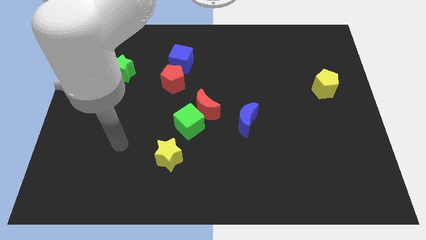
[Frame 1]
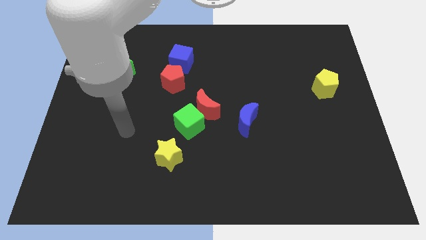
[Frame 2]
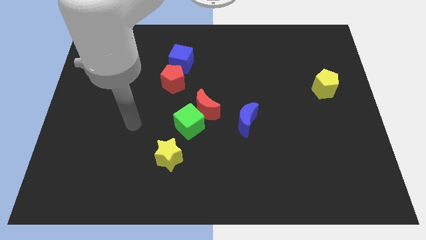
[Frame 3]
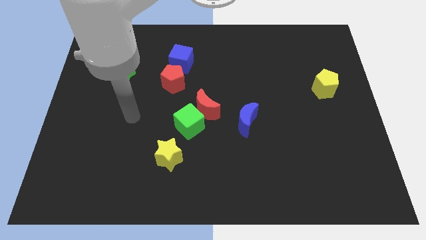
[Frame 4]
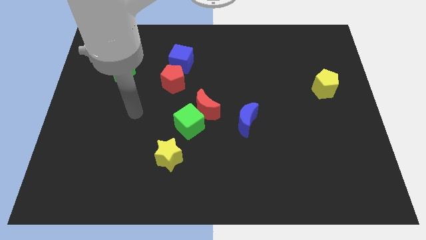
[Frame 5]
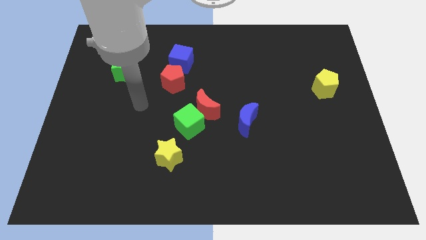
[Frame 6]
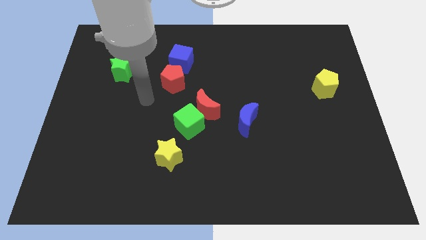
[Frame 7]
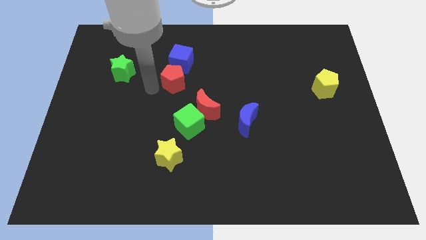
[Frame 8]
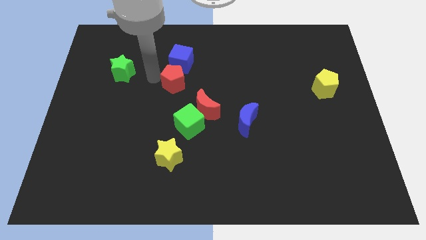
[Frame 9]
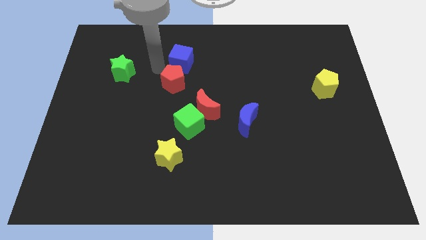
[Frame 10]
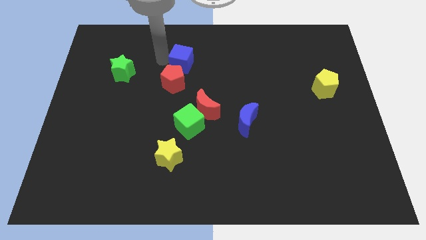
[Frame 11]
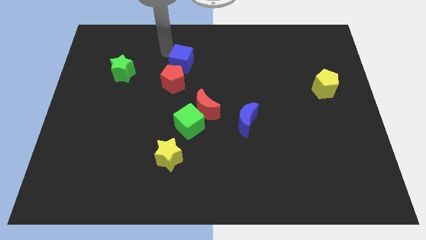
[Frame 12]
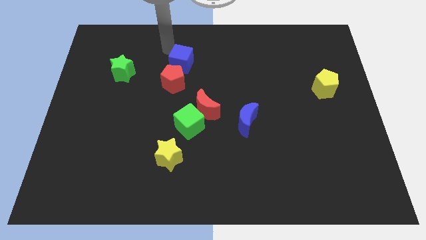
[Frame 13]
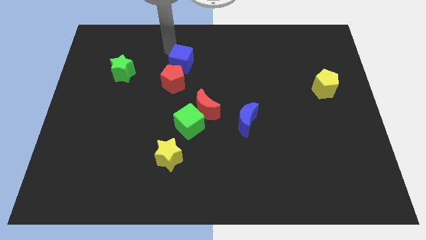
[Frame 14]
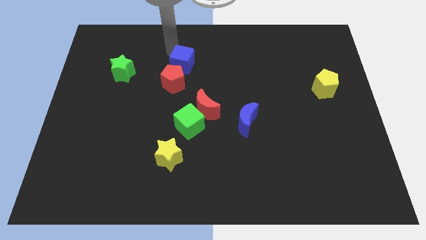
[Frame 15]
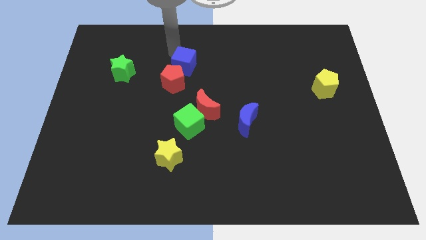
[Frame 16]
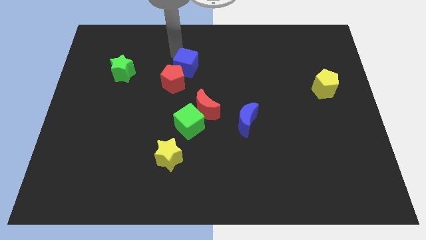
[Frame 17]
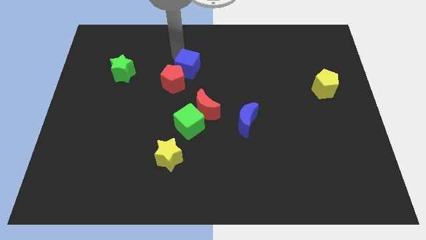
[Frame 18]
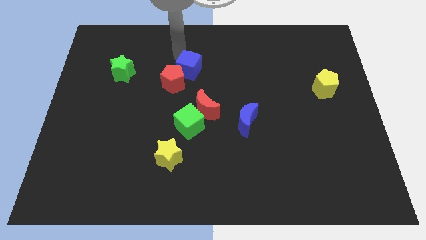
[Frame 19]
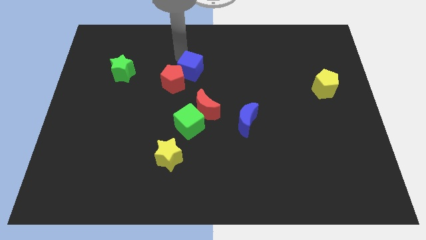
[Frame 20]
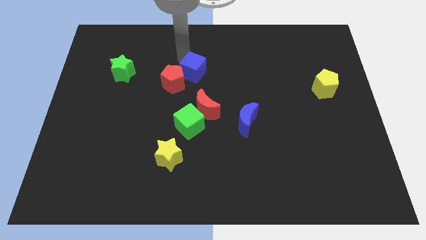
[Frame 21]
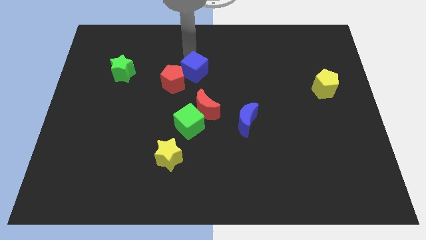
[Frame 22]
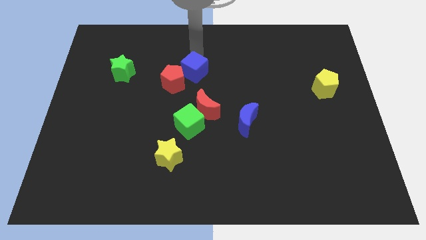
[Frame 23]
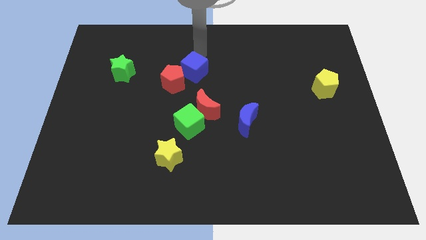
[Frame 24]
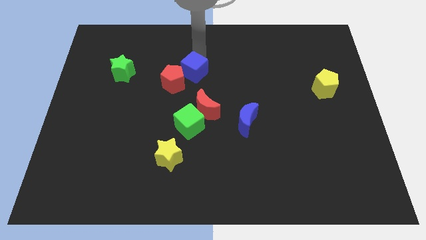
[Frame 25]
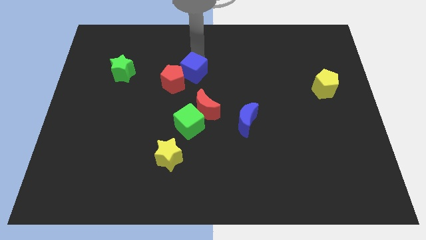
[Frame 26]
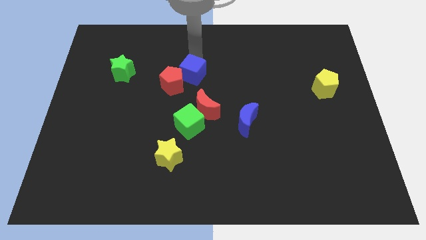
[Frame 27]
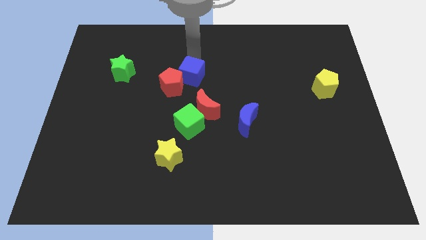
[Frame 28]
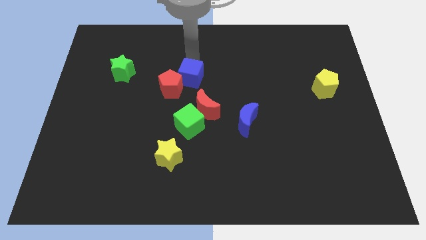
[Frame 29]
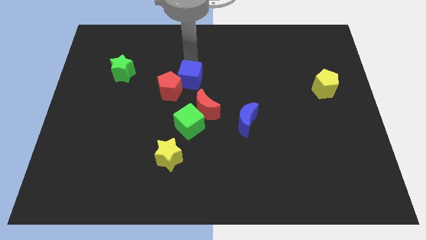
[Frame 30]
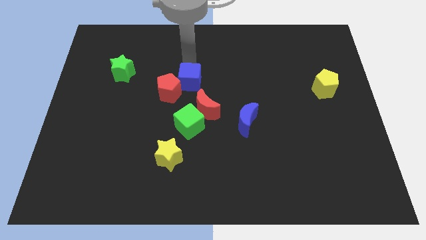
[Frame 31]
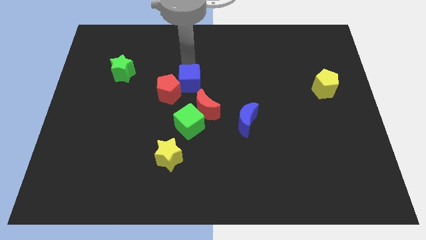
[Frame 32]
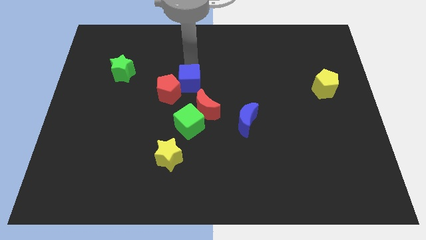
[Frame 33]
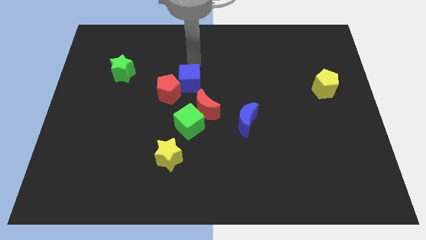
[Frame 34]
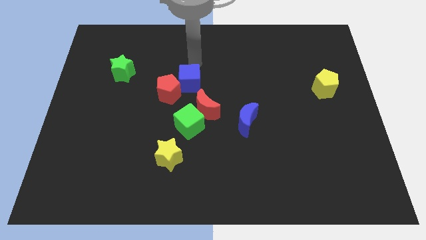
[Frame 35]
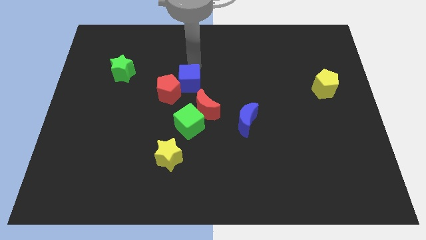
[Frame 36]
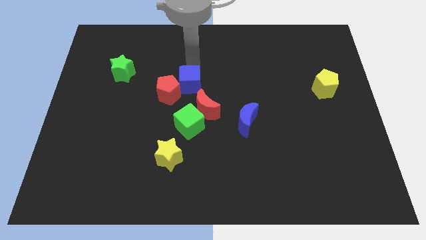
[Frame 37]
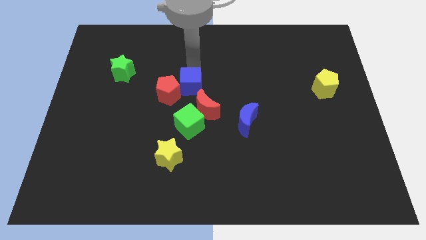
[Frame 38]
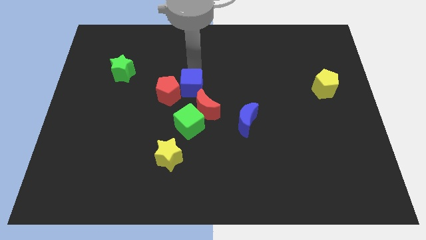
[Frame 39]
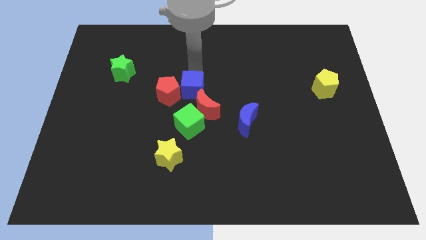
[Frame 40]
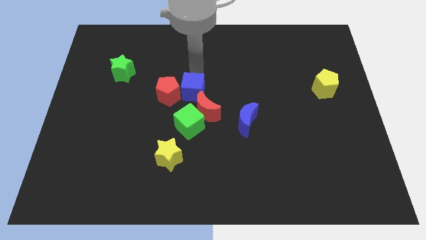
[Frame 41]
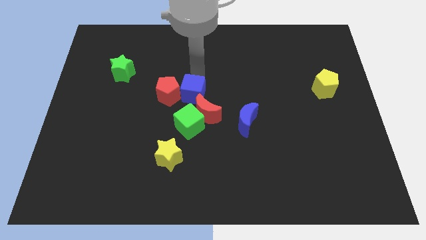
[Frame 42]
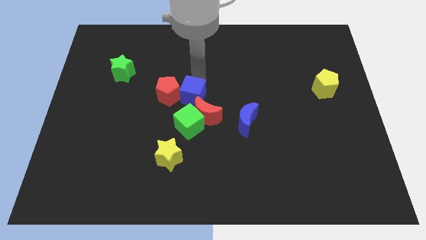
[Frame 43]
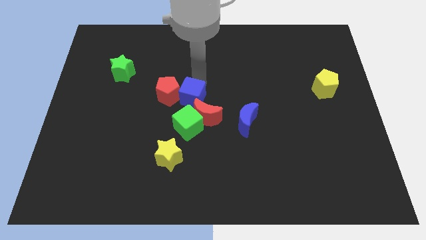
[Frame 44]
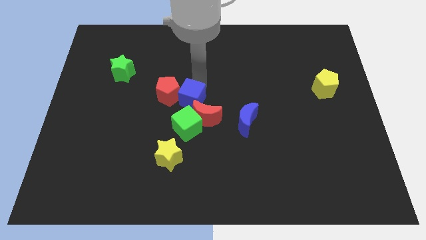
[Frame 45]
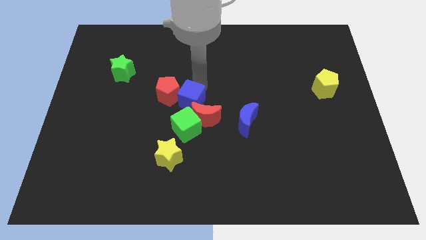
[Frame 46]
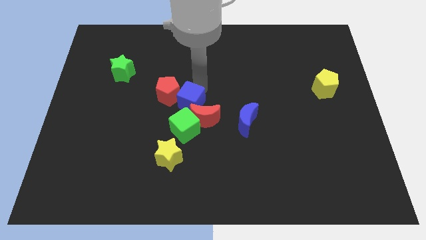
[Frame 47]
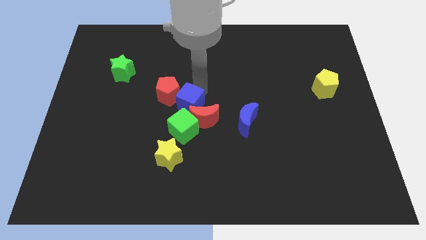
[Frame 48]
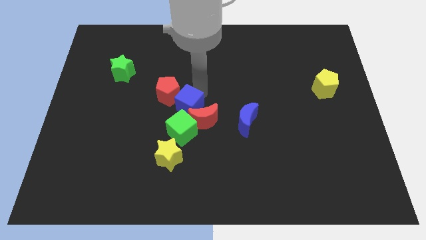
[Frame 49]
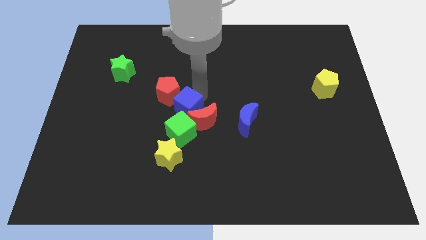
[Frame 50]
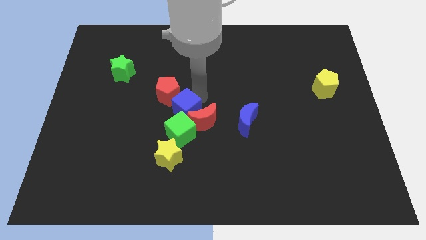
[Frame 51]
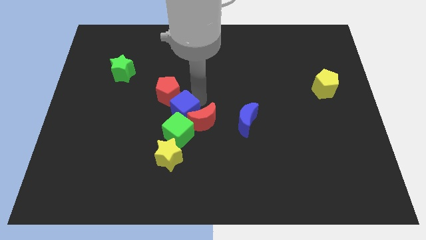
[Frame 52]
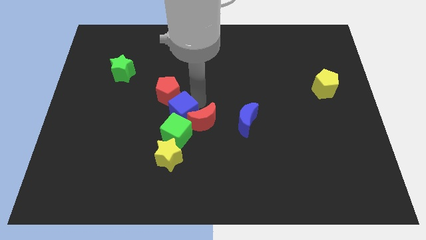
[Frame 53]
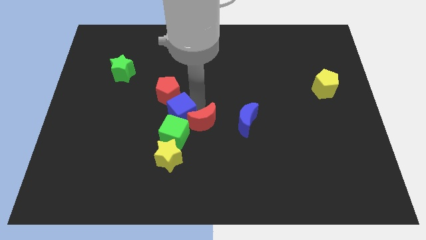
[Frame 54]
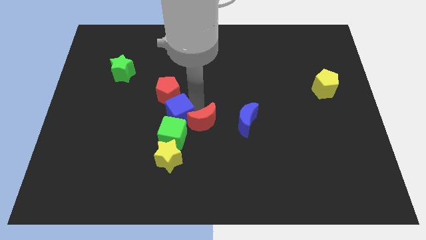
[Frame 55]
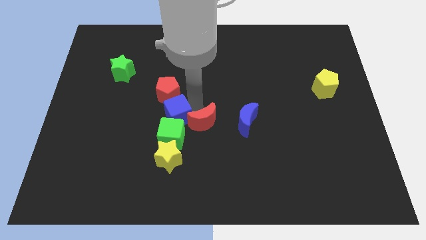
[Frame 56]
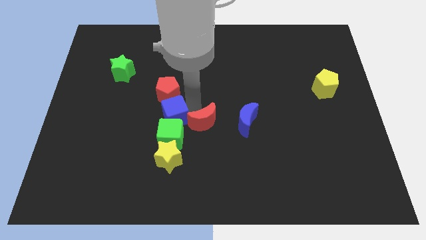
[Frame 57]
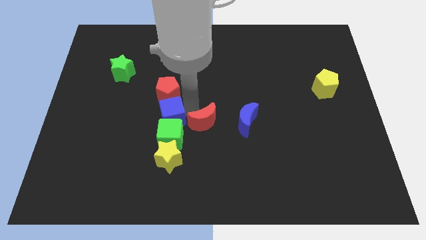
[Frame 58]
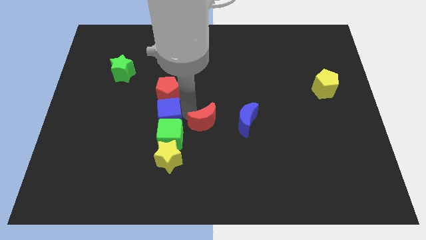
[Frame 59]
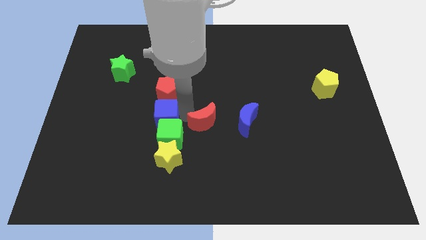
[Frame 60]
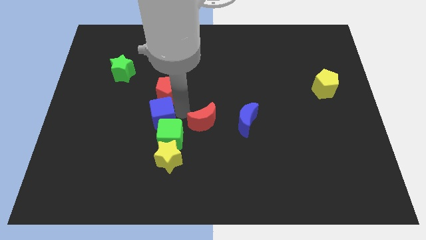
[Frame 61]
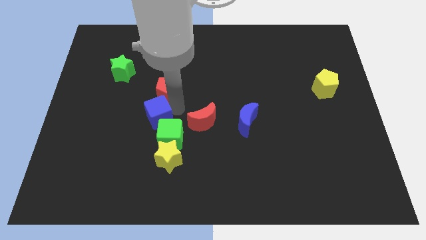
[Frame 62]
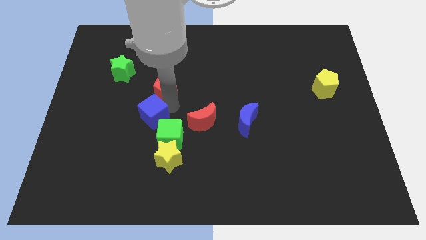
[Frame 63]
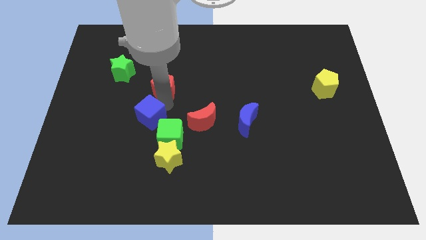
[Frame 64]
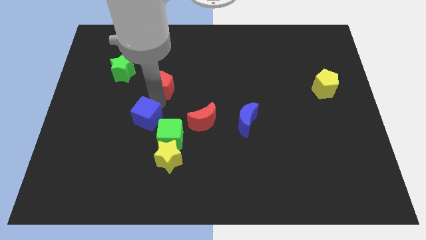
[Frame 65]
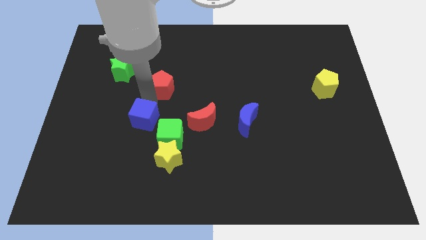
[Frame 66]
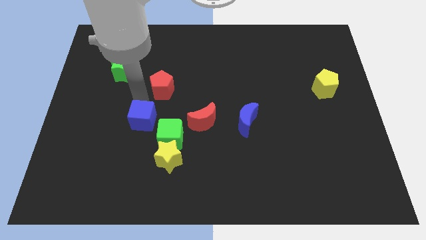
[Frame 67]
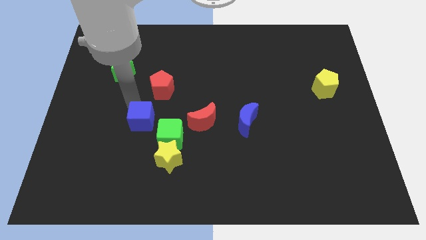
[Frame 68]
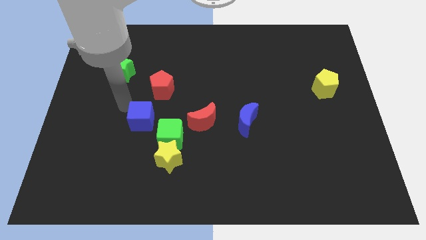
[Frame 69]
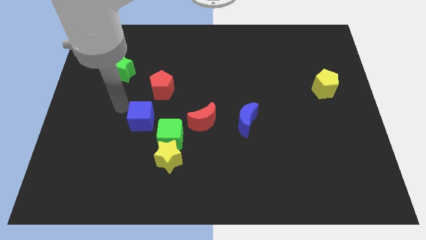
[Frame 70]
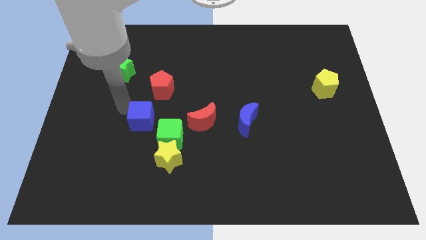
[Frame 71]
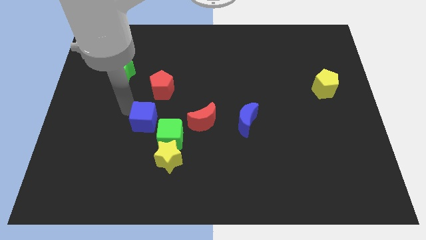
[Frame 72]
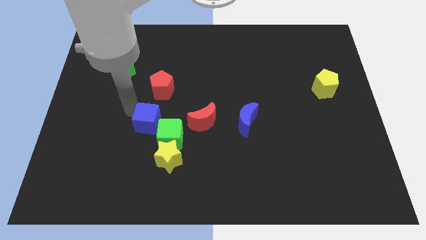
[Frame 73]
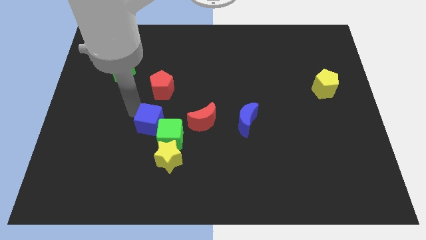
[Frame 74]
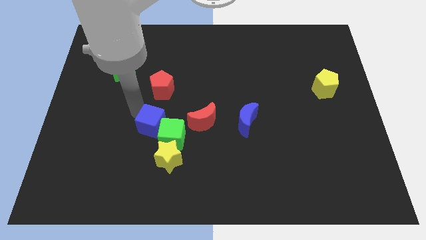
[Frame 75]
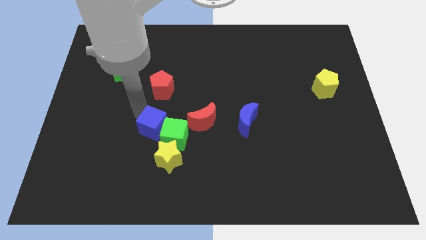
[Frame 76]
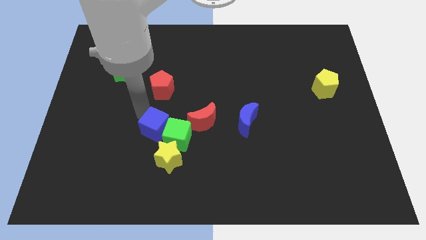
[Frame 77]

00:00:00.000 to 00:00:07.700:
slide the blue cube downwards

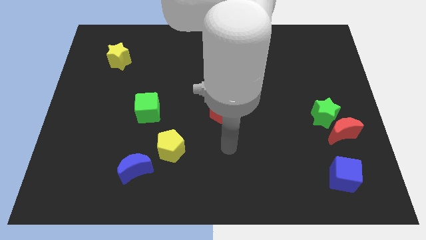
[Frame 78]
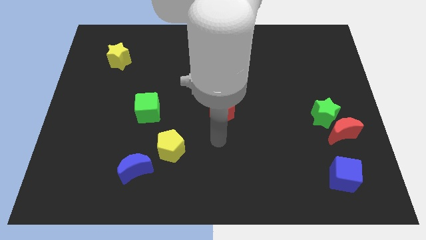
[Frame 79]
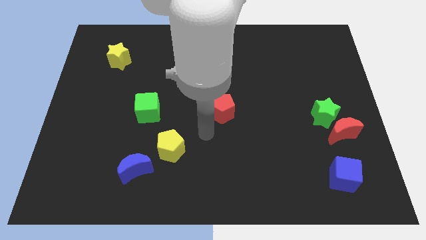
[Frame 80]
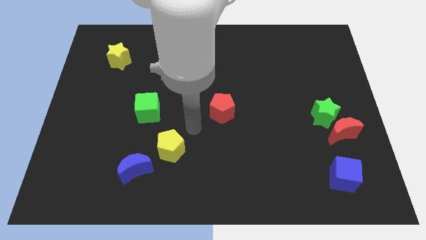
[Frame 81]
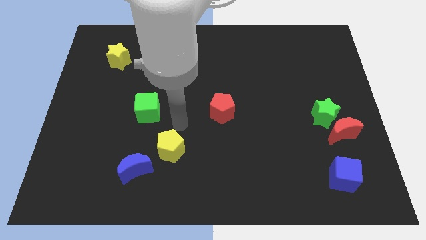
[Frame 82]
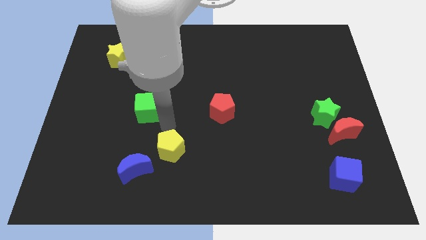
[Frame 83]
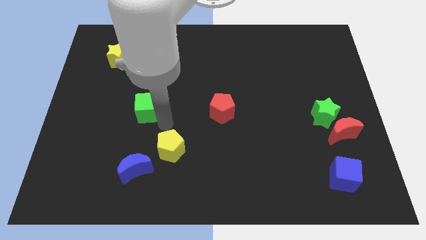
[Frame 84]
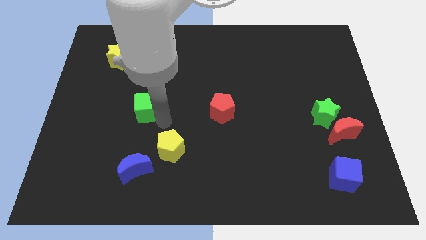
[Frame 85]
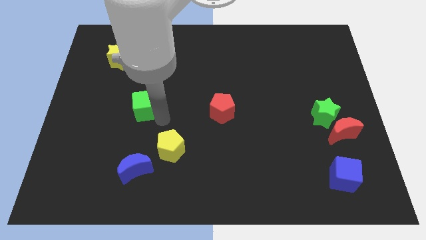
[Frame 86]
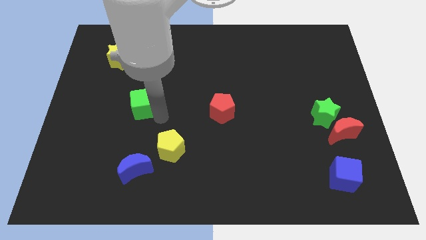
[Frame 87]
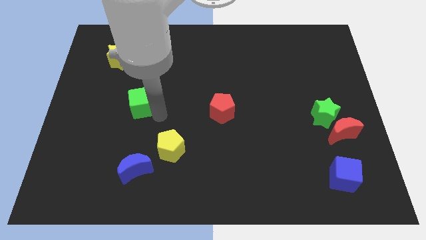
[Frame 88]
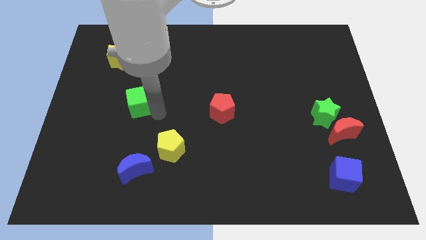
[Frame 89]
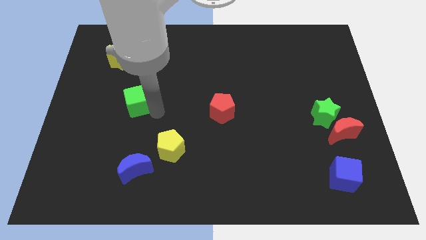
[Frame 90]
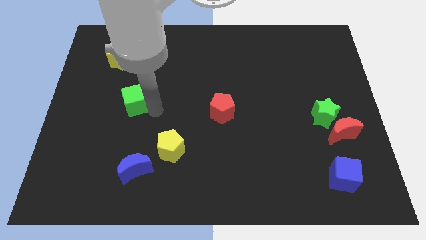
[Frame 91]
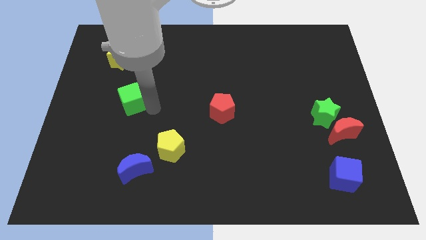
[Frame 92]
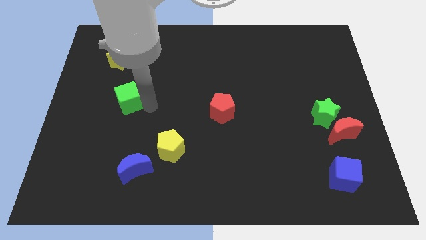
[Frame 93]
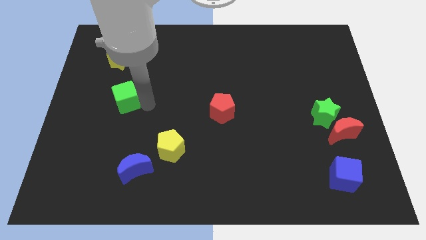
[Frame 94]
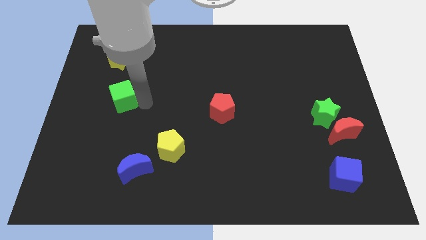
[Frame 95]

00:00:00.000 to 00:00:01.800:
slightly slide the green cube diagonally upwards and to the left
